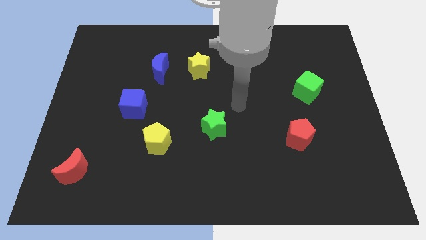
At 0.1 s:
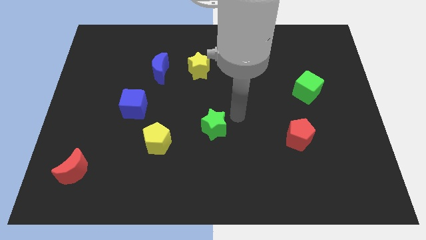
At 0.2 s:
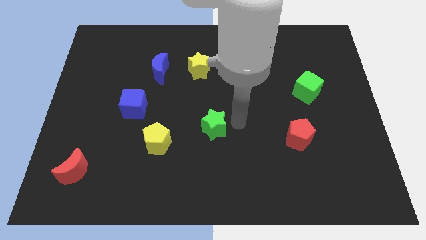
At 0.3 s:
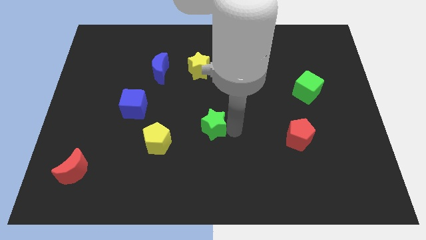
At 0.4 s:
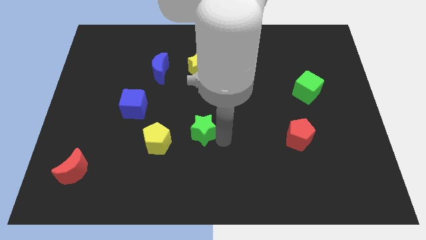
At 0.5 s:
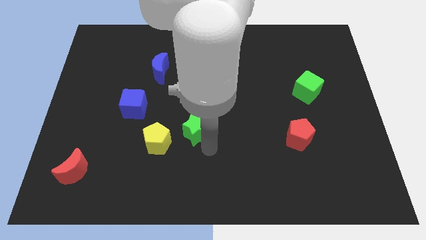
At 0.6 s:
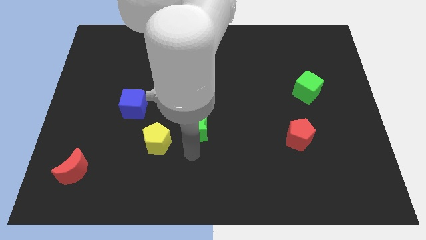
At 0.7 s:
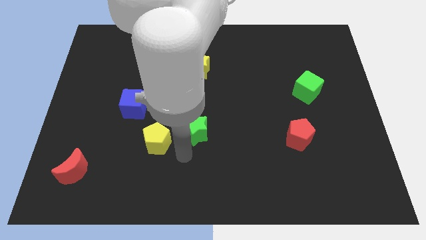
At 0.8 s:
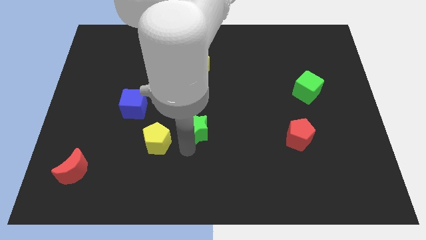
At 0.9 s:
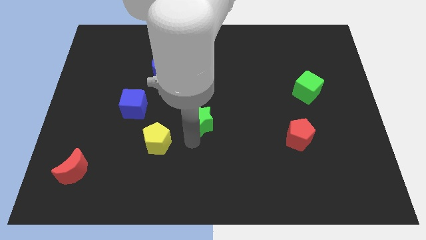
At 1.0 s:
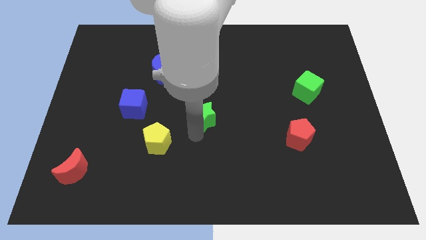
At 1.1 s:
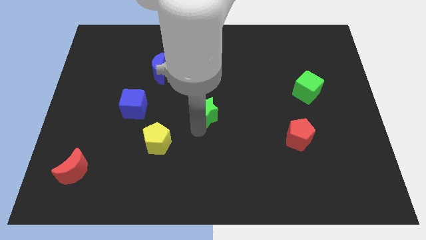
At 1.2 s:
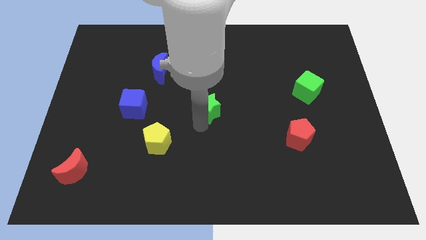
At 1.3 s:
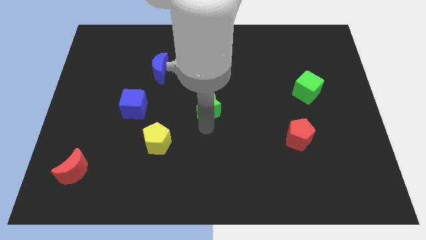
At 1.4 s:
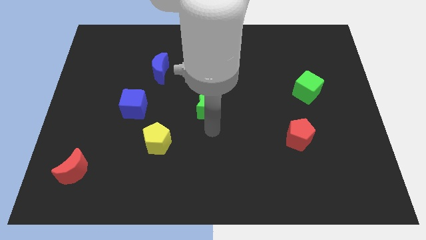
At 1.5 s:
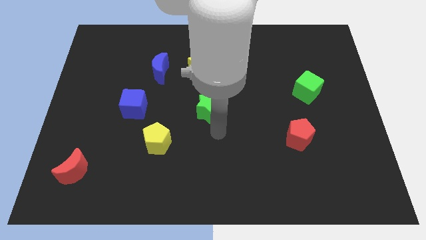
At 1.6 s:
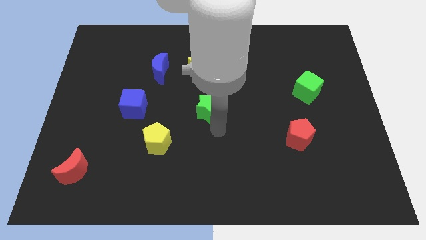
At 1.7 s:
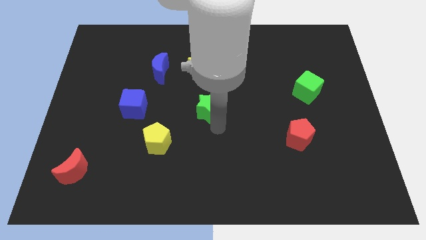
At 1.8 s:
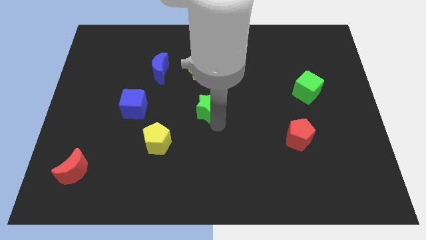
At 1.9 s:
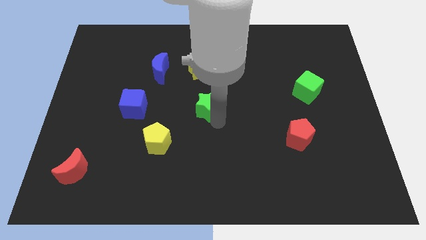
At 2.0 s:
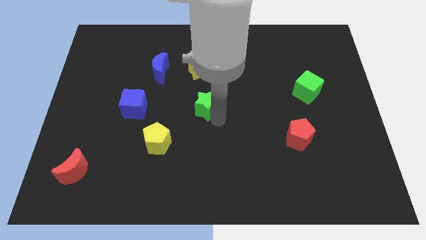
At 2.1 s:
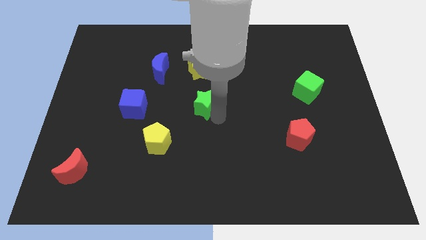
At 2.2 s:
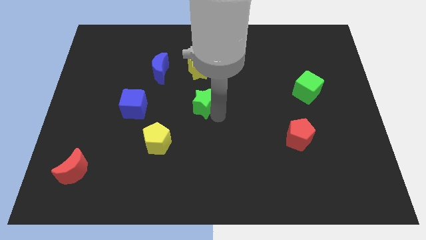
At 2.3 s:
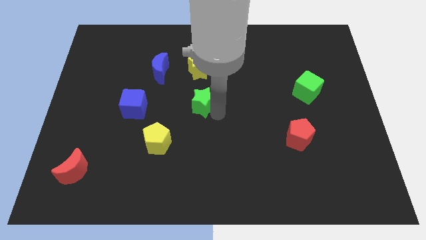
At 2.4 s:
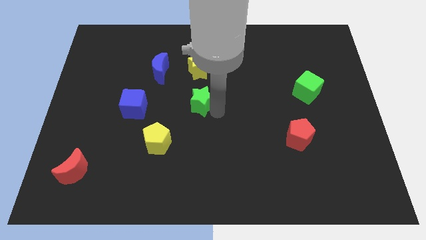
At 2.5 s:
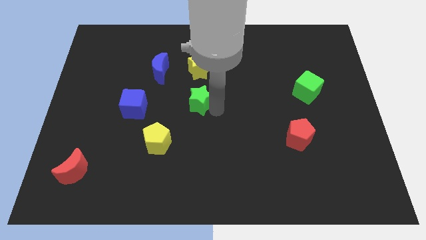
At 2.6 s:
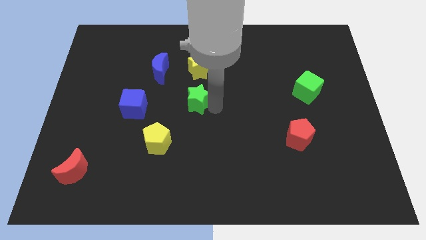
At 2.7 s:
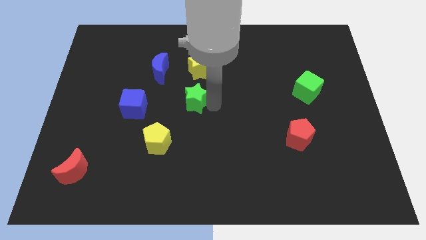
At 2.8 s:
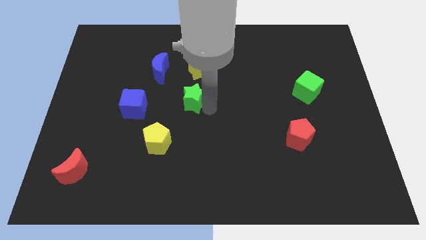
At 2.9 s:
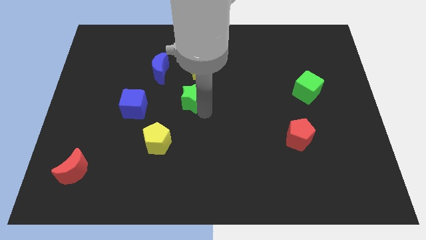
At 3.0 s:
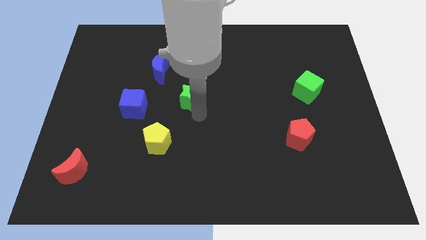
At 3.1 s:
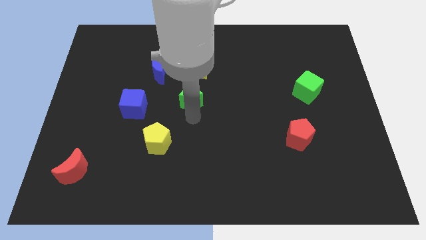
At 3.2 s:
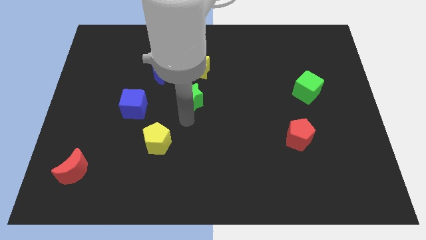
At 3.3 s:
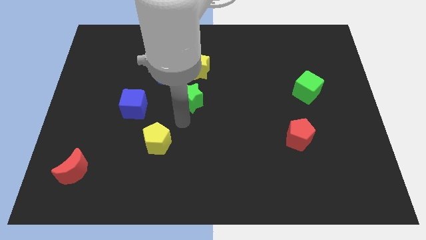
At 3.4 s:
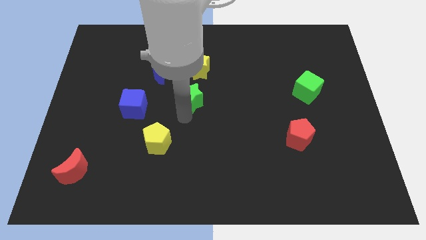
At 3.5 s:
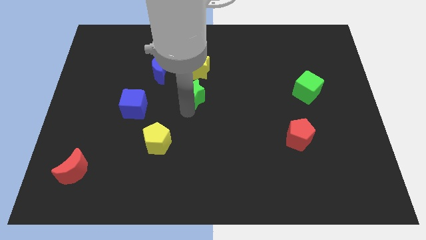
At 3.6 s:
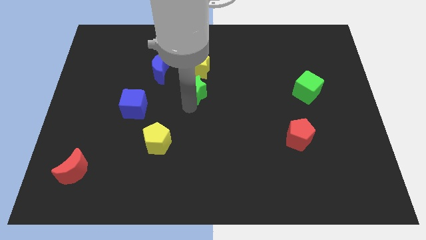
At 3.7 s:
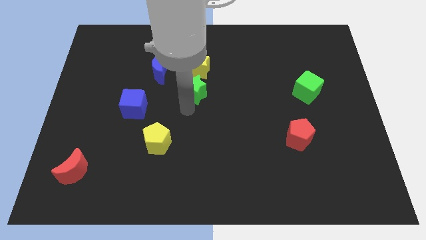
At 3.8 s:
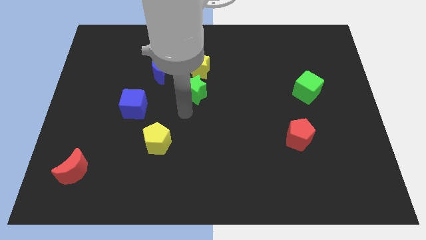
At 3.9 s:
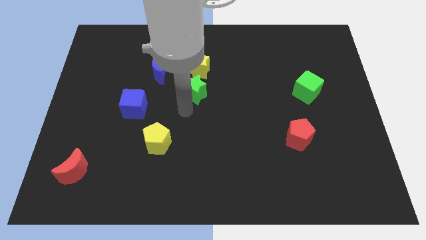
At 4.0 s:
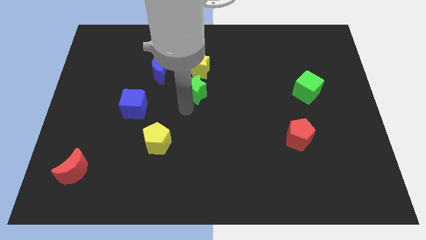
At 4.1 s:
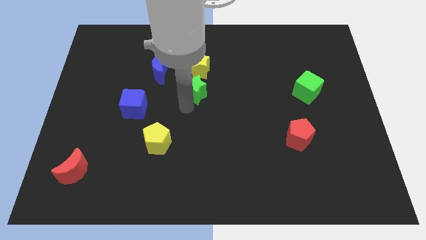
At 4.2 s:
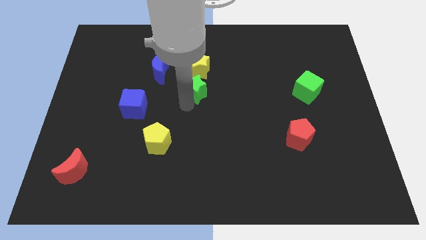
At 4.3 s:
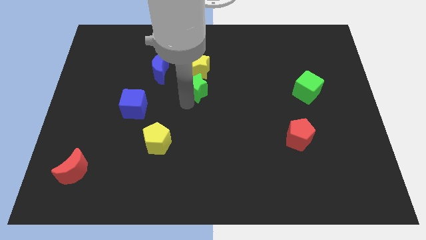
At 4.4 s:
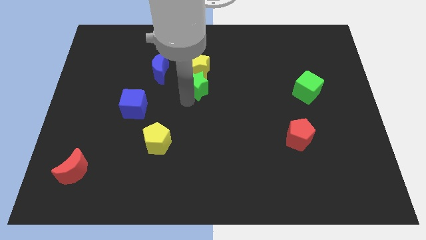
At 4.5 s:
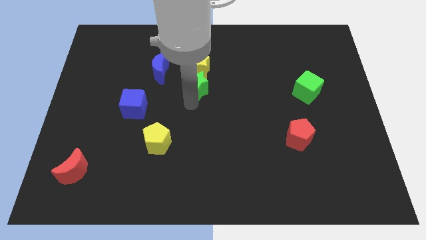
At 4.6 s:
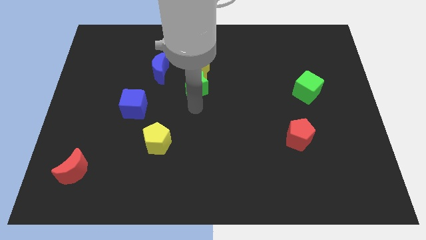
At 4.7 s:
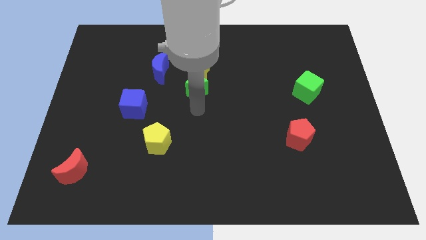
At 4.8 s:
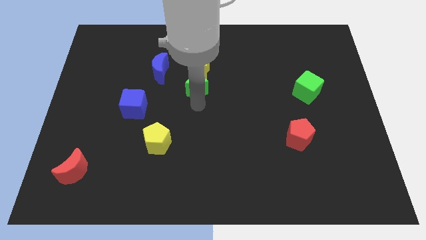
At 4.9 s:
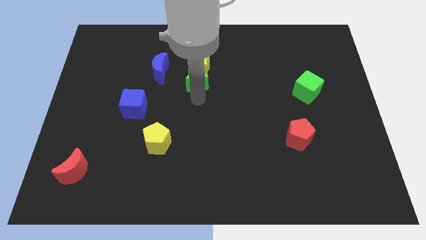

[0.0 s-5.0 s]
put the green star to the yellow star

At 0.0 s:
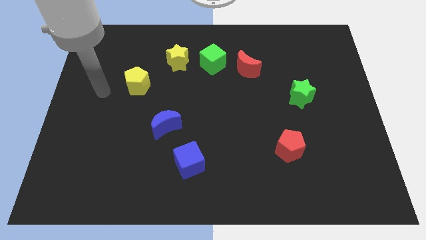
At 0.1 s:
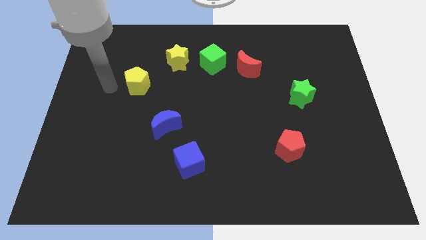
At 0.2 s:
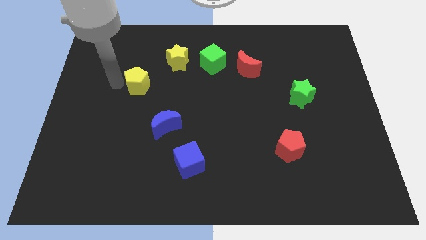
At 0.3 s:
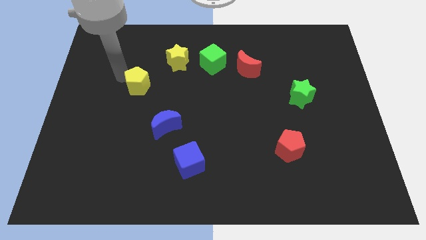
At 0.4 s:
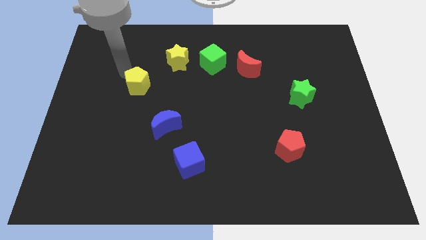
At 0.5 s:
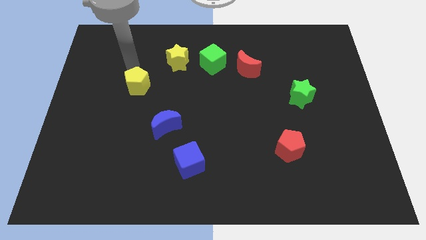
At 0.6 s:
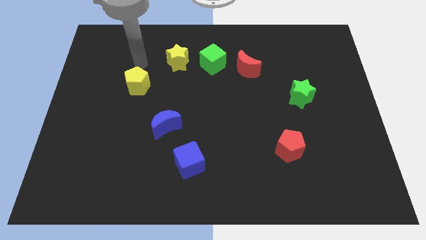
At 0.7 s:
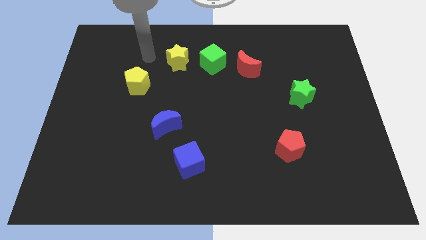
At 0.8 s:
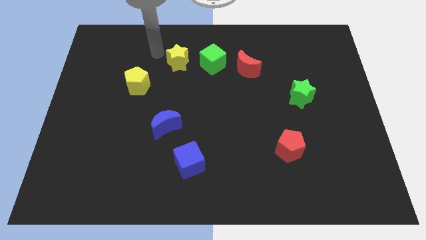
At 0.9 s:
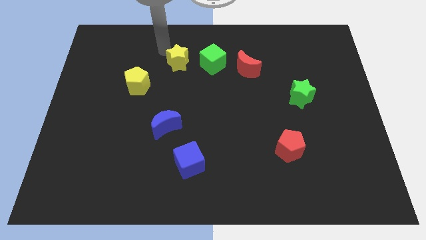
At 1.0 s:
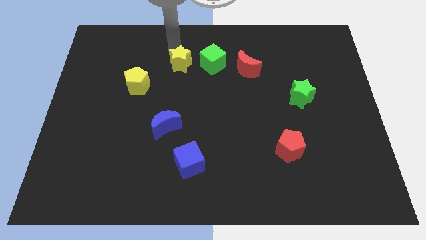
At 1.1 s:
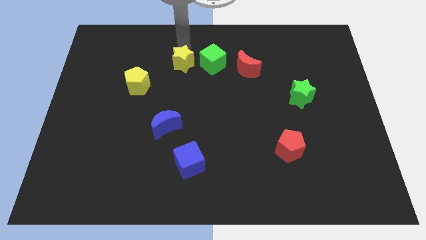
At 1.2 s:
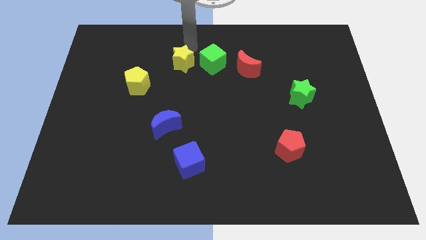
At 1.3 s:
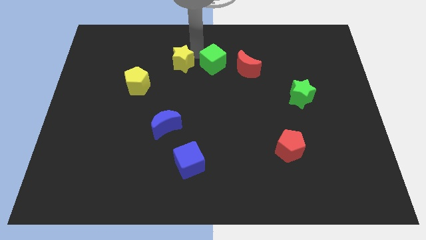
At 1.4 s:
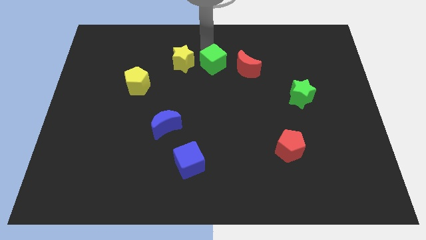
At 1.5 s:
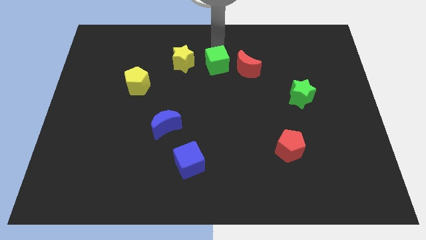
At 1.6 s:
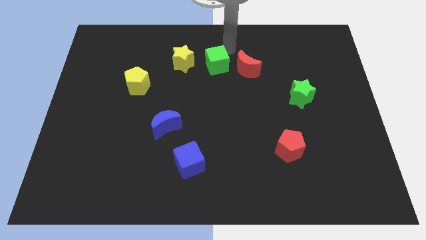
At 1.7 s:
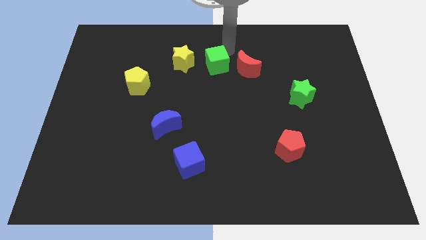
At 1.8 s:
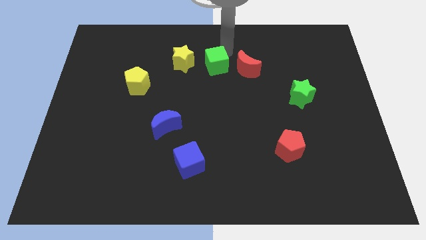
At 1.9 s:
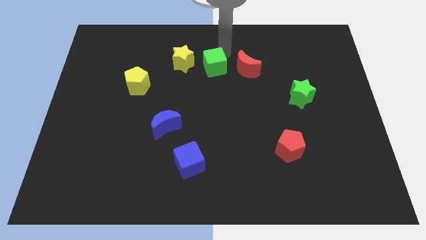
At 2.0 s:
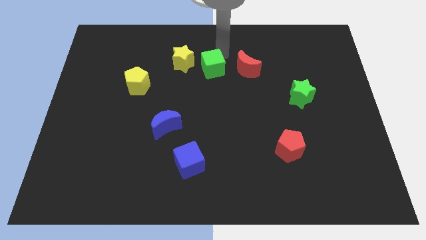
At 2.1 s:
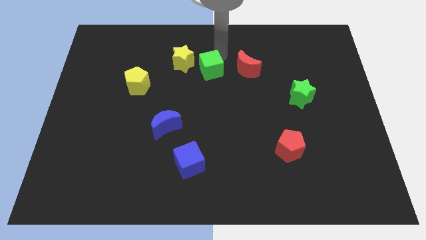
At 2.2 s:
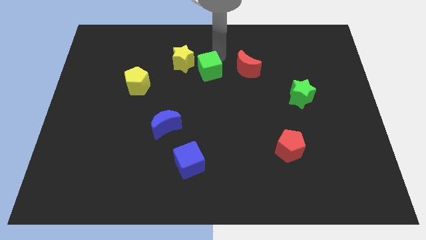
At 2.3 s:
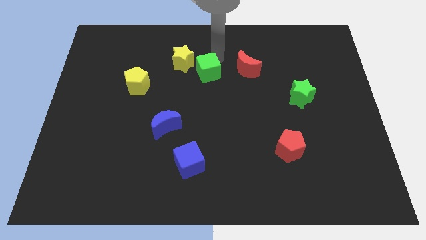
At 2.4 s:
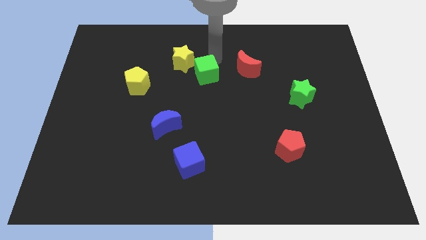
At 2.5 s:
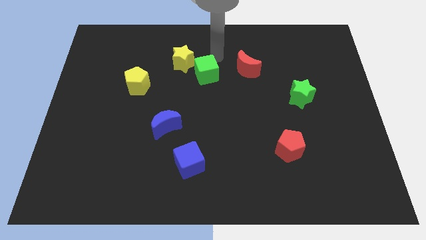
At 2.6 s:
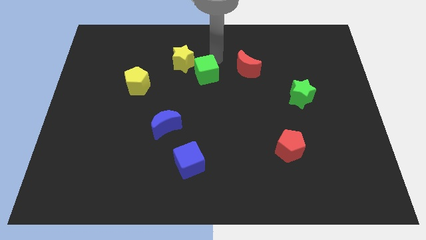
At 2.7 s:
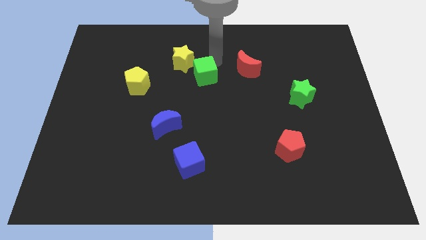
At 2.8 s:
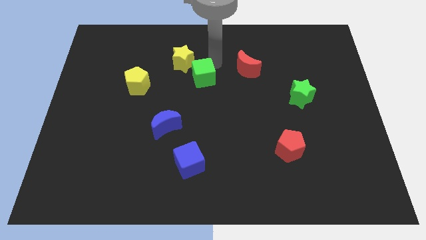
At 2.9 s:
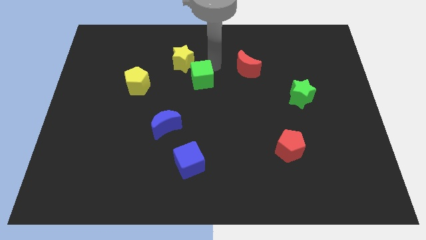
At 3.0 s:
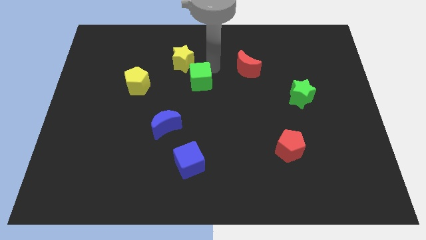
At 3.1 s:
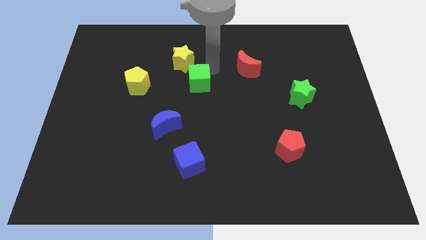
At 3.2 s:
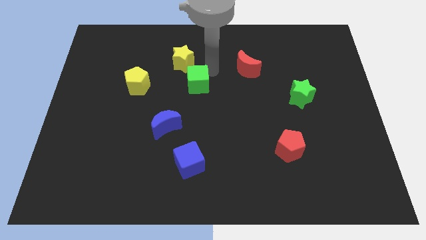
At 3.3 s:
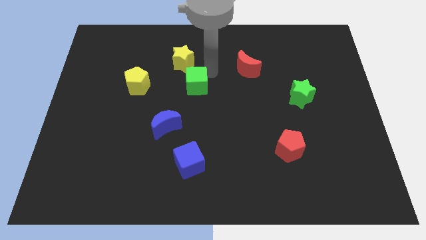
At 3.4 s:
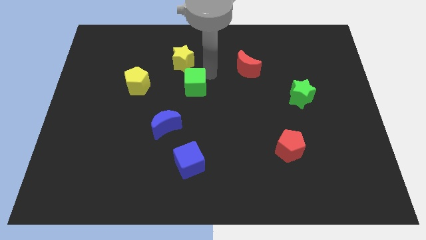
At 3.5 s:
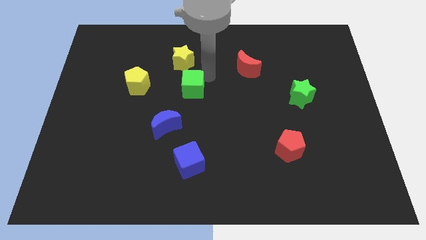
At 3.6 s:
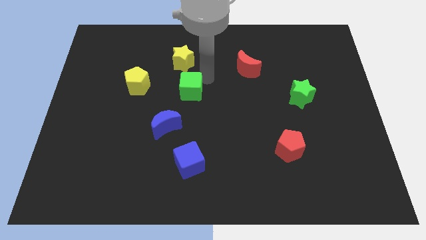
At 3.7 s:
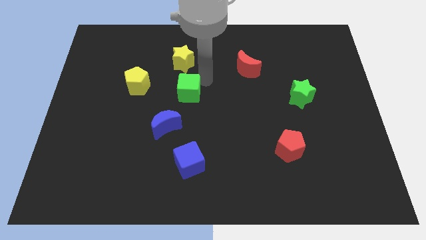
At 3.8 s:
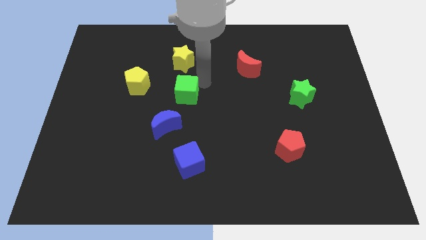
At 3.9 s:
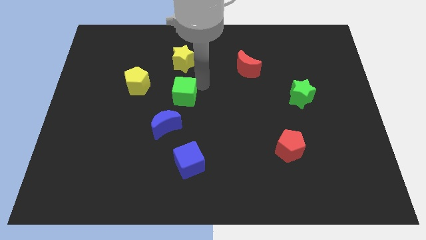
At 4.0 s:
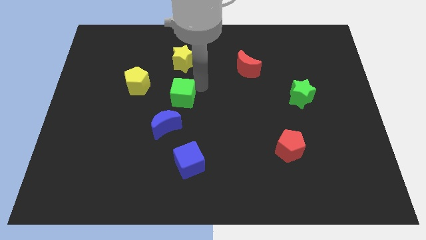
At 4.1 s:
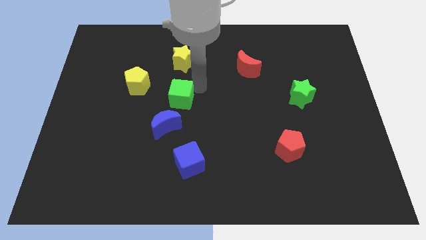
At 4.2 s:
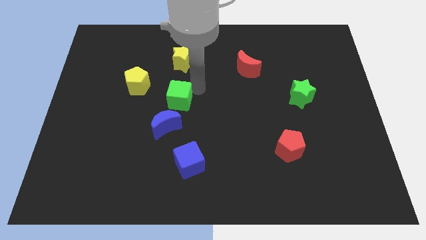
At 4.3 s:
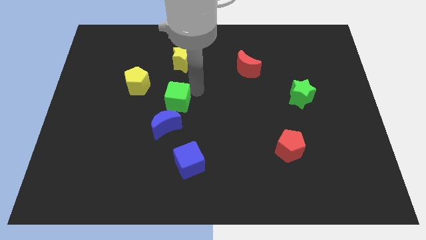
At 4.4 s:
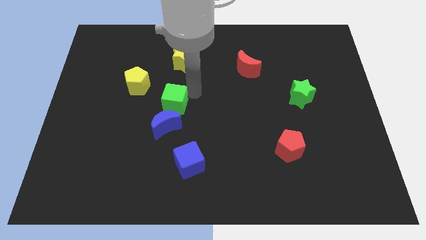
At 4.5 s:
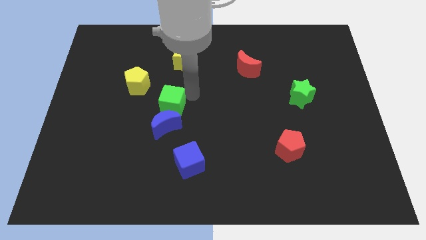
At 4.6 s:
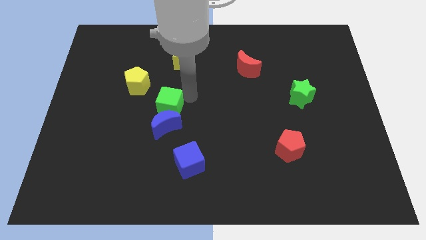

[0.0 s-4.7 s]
move the green cube close to the blue moon
